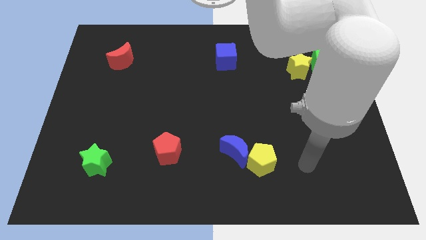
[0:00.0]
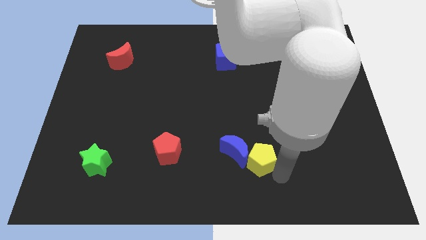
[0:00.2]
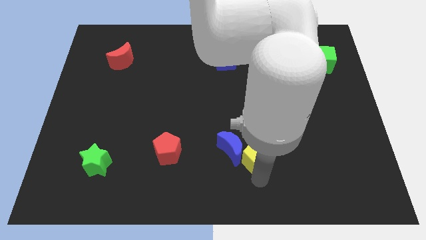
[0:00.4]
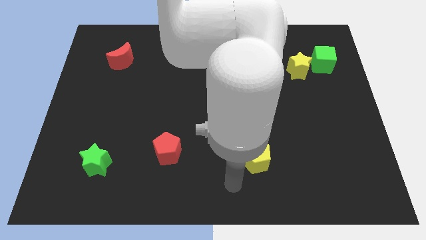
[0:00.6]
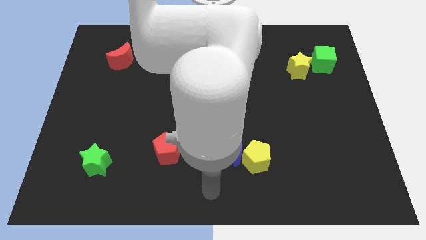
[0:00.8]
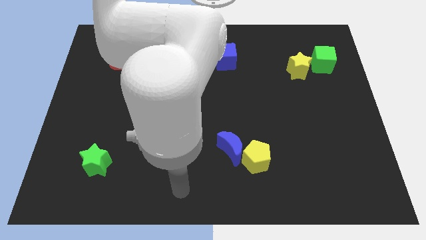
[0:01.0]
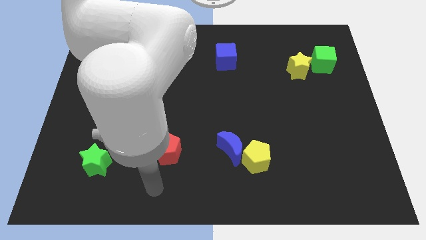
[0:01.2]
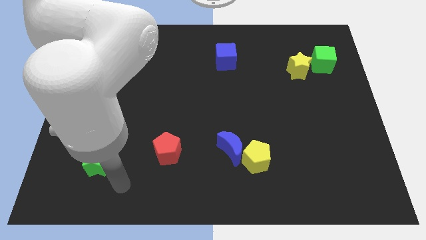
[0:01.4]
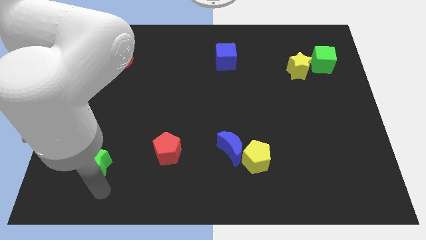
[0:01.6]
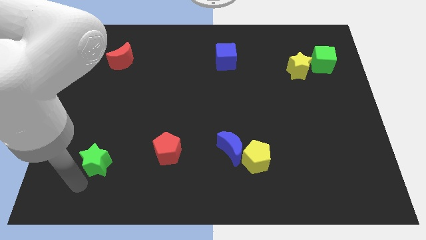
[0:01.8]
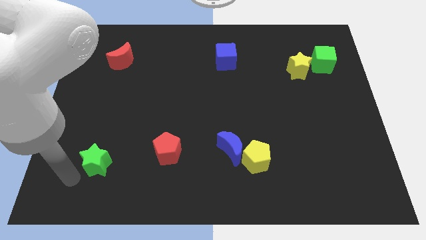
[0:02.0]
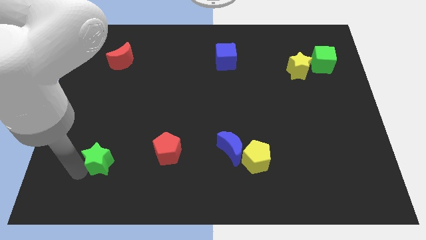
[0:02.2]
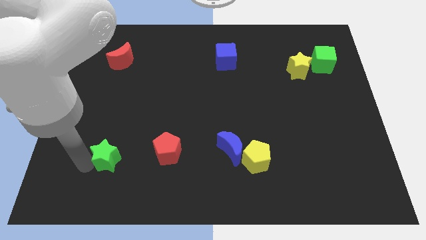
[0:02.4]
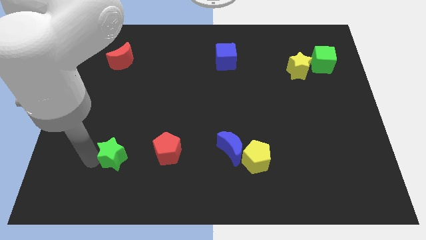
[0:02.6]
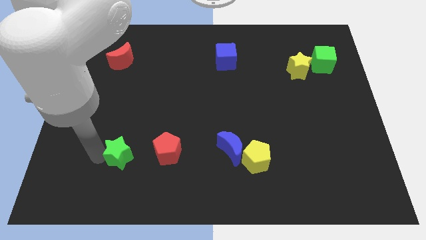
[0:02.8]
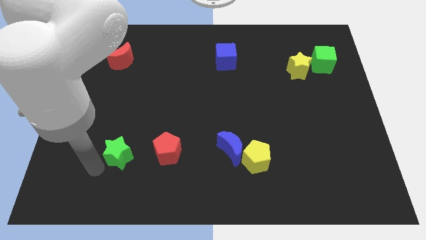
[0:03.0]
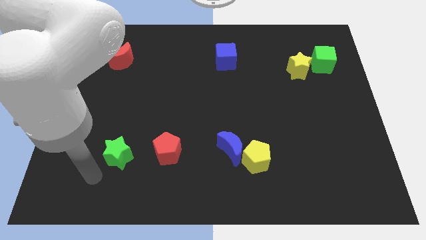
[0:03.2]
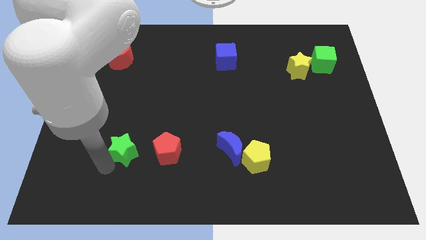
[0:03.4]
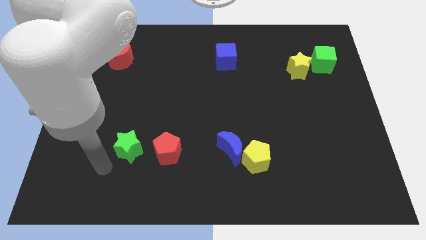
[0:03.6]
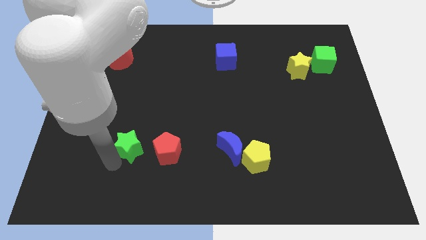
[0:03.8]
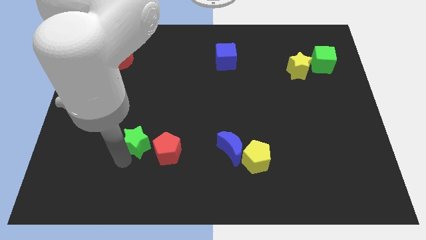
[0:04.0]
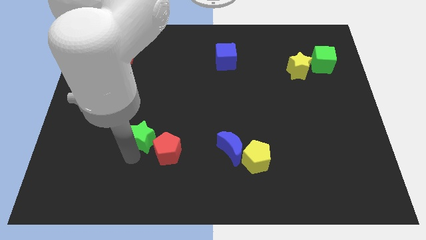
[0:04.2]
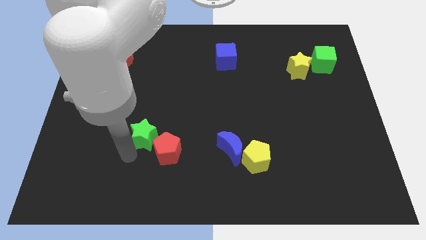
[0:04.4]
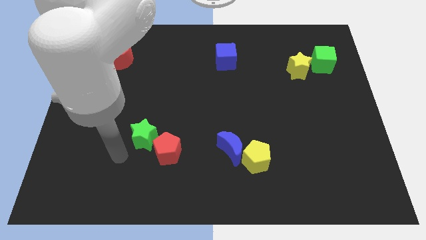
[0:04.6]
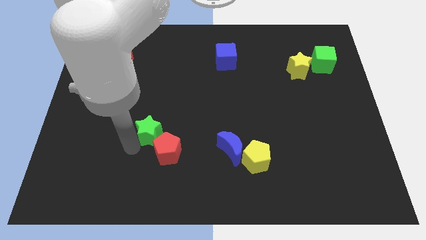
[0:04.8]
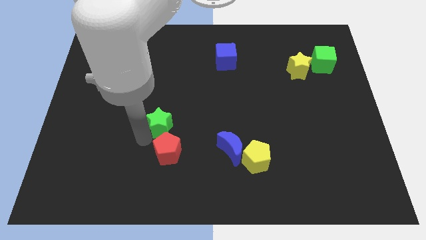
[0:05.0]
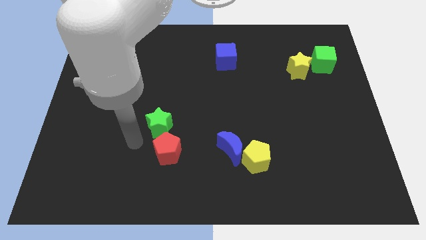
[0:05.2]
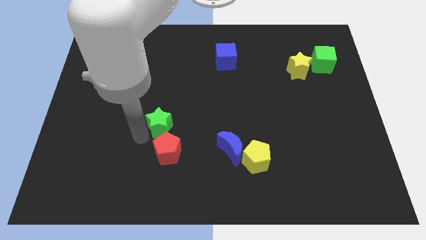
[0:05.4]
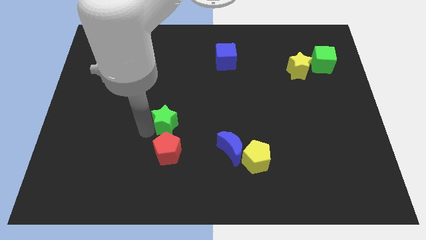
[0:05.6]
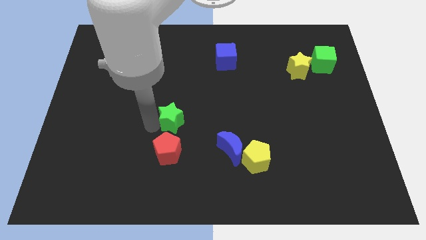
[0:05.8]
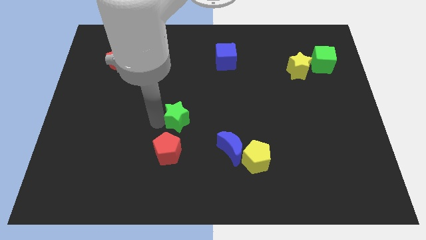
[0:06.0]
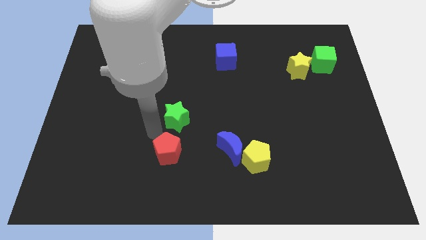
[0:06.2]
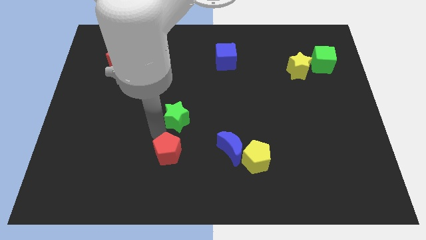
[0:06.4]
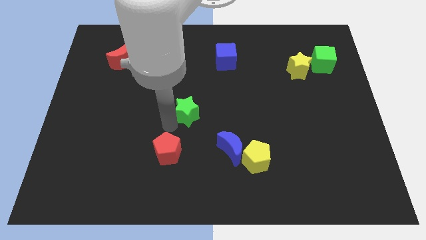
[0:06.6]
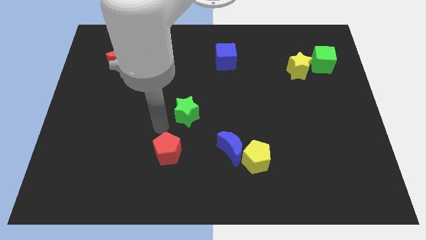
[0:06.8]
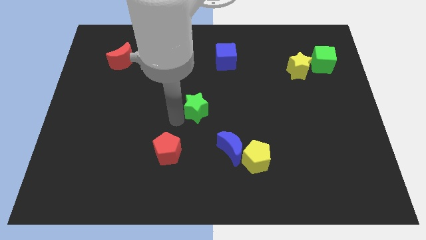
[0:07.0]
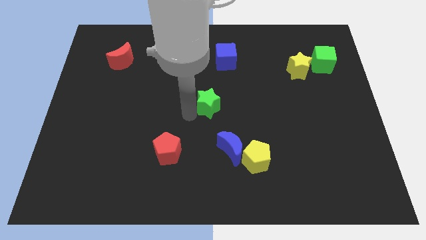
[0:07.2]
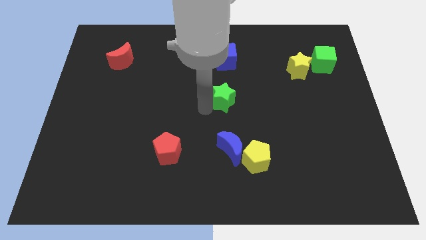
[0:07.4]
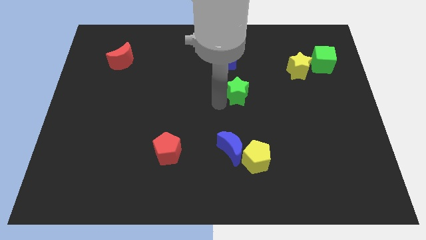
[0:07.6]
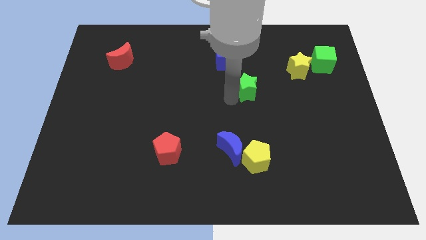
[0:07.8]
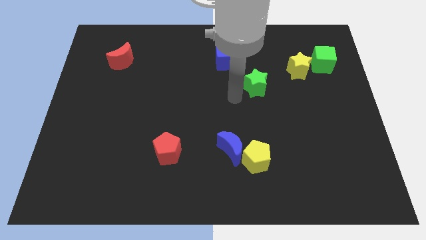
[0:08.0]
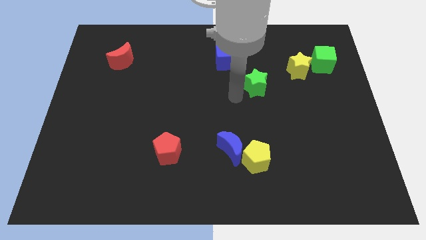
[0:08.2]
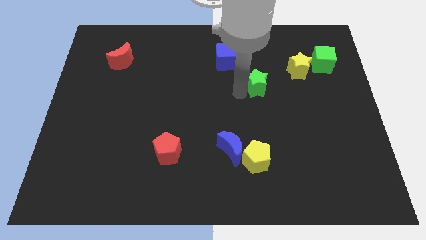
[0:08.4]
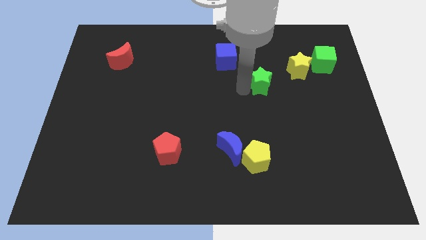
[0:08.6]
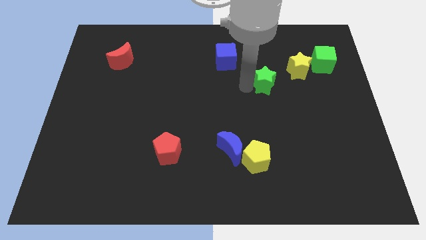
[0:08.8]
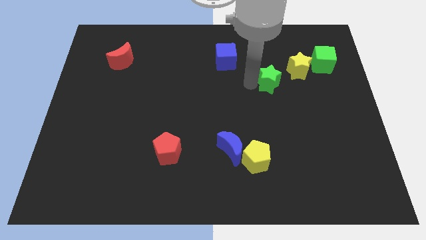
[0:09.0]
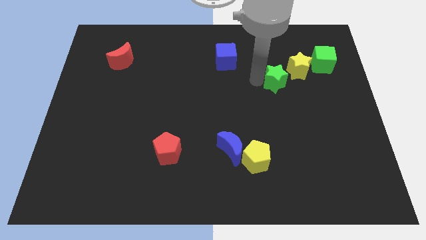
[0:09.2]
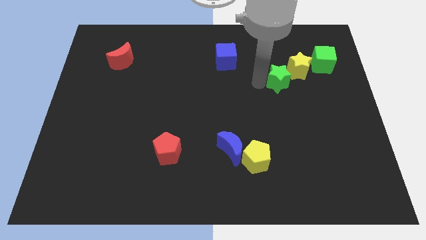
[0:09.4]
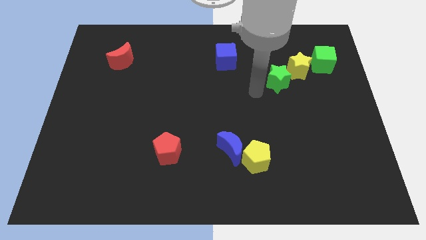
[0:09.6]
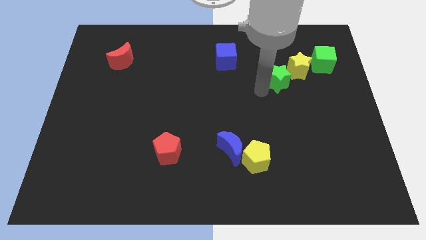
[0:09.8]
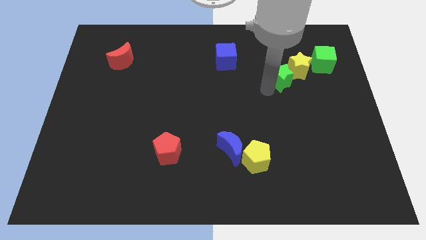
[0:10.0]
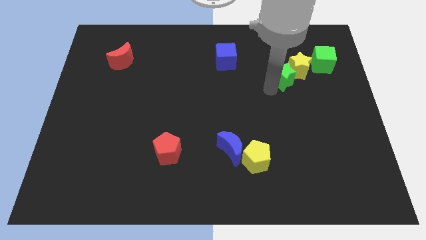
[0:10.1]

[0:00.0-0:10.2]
put the green star towards the yellow star

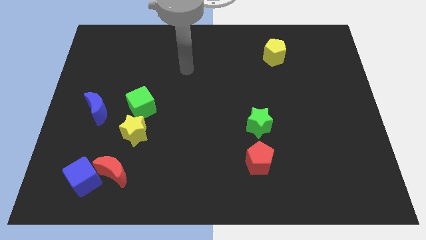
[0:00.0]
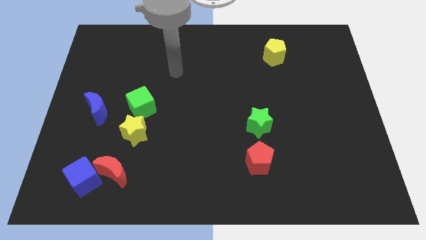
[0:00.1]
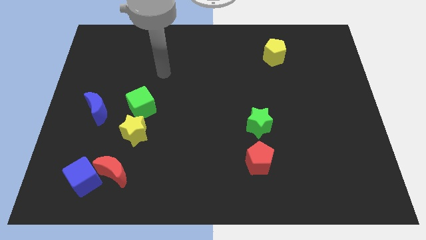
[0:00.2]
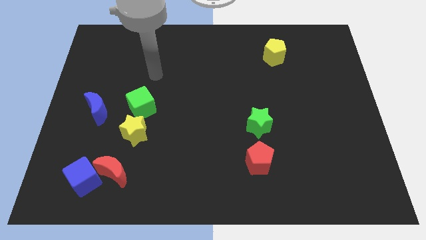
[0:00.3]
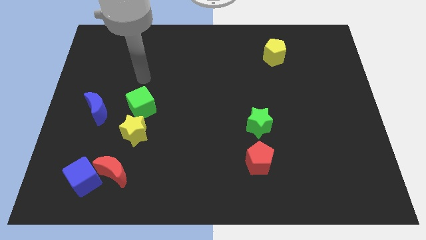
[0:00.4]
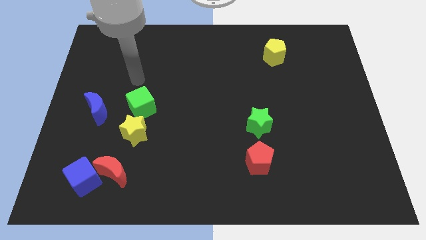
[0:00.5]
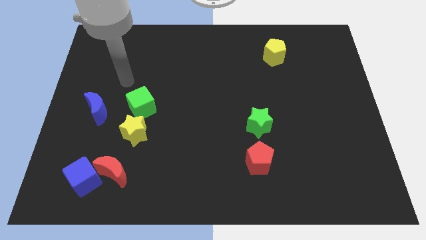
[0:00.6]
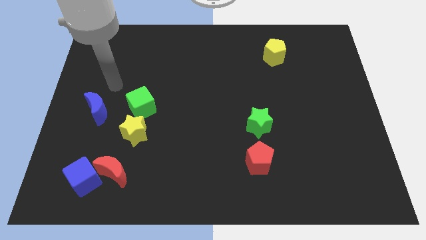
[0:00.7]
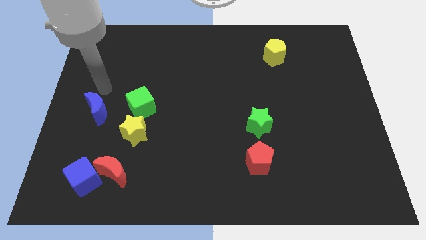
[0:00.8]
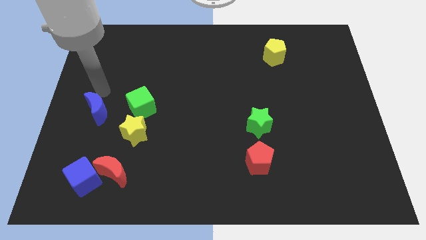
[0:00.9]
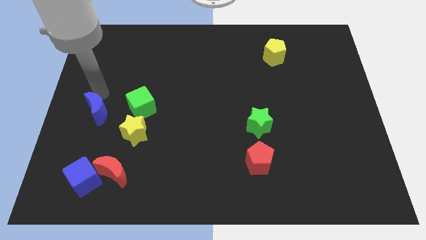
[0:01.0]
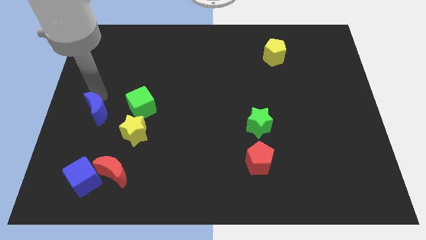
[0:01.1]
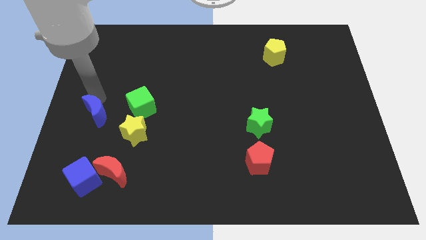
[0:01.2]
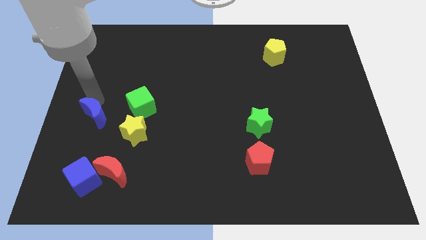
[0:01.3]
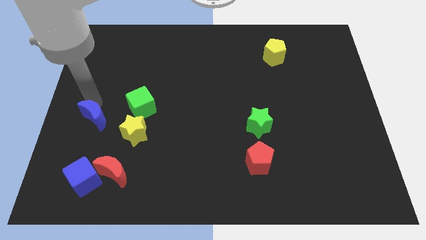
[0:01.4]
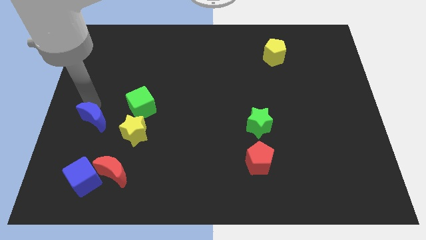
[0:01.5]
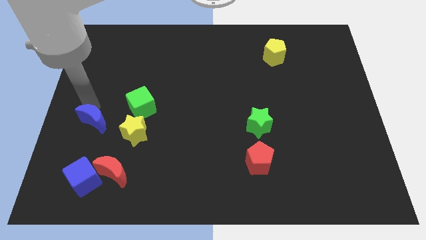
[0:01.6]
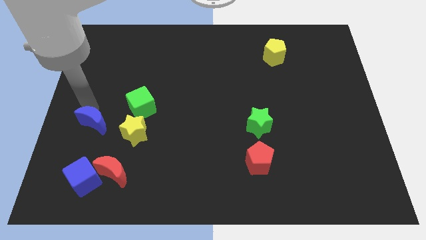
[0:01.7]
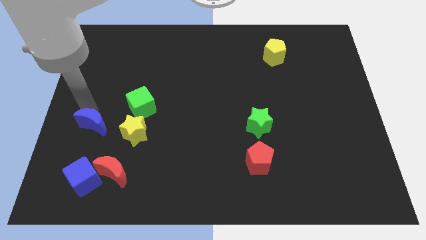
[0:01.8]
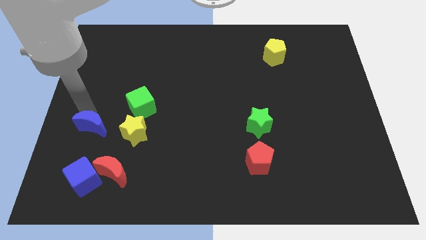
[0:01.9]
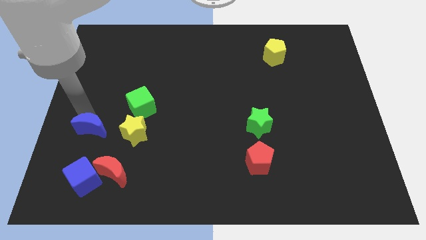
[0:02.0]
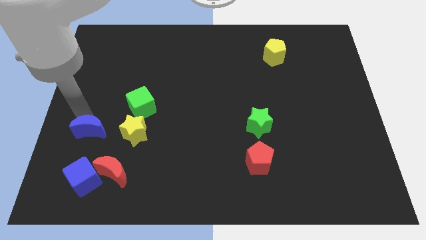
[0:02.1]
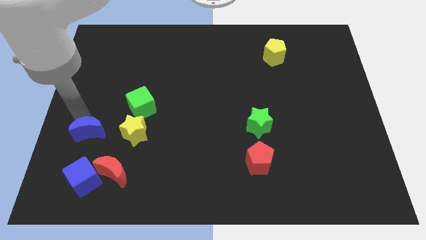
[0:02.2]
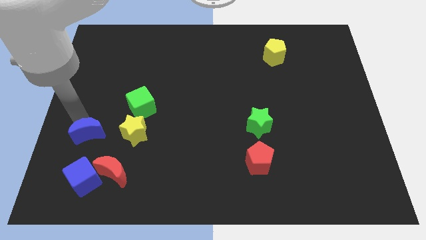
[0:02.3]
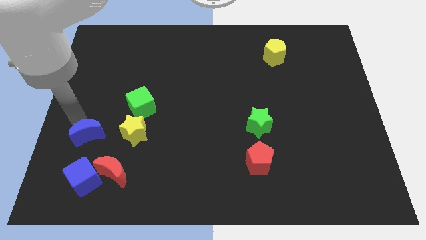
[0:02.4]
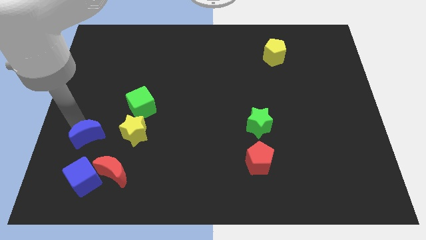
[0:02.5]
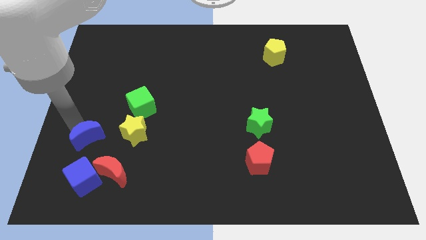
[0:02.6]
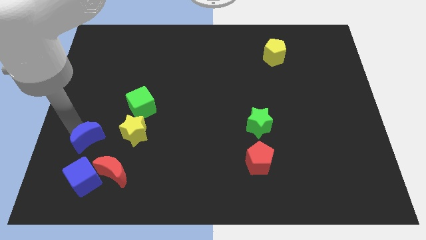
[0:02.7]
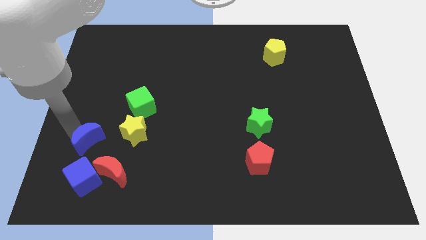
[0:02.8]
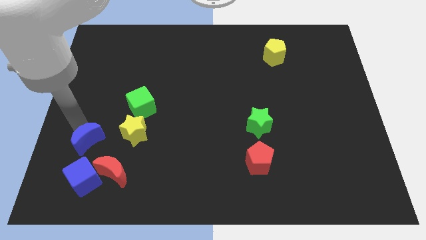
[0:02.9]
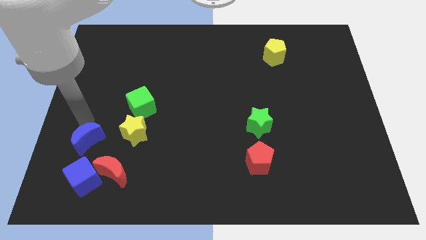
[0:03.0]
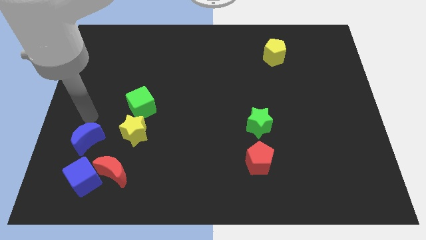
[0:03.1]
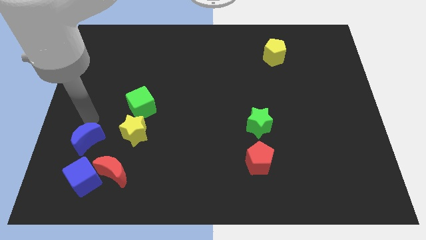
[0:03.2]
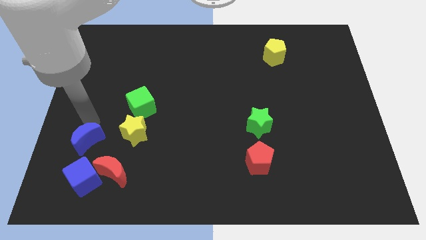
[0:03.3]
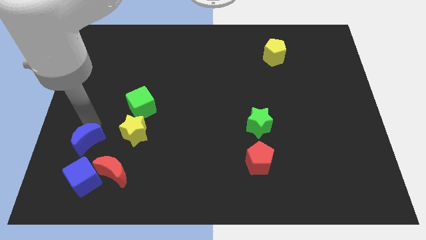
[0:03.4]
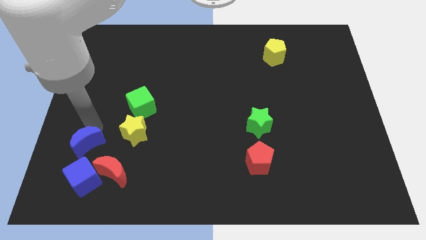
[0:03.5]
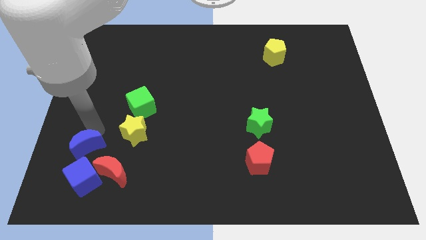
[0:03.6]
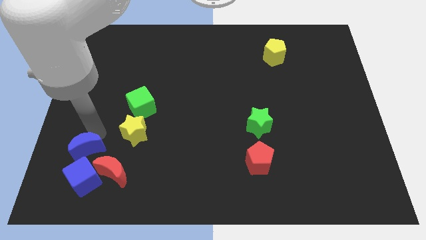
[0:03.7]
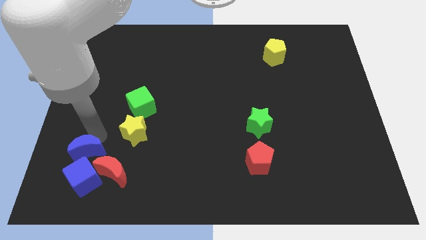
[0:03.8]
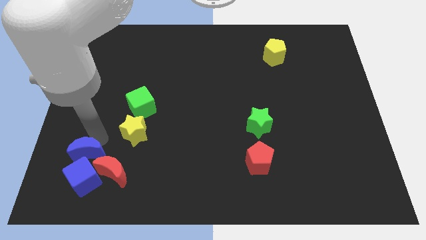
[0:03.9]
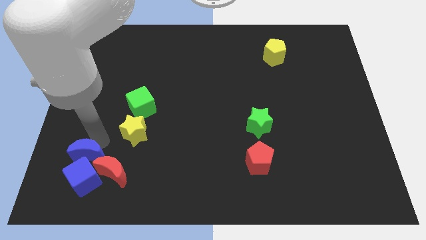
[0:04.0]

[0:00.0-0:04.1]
push the blue moon towards the blue cube
